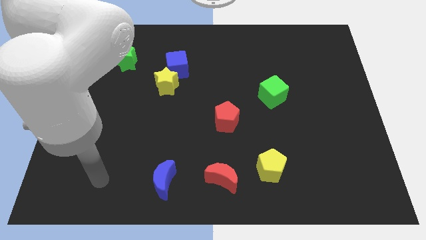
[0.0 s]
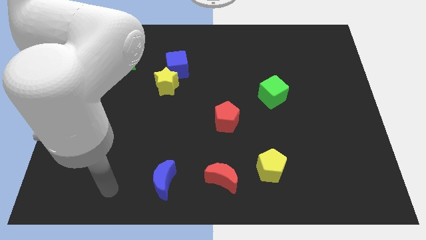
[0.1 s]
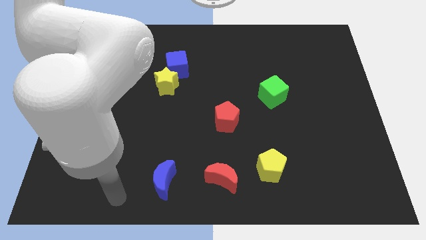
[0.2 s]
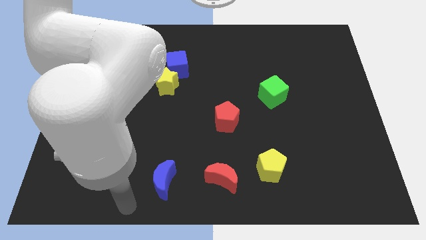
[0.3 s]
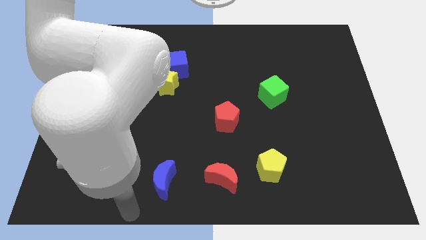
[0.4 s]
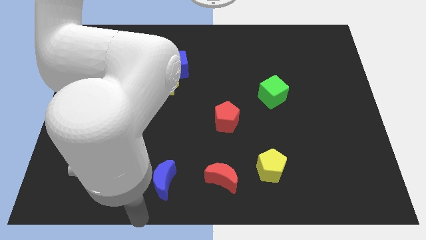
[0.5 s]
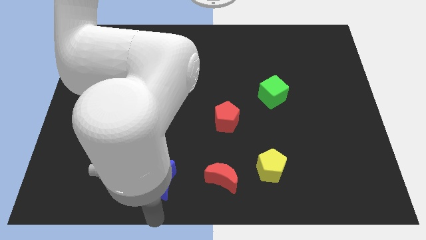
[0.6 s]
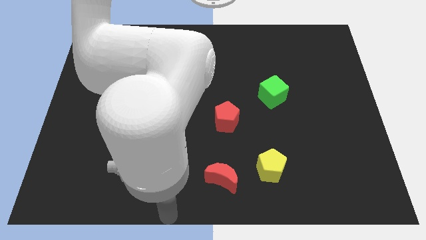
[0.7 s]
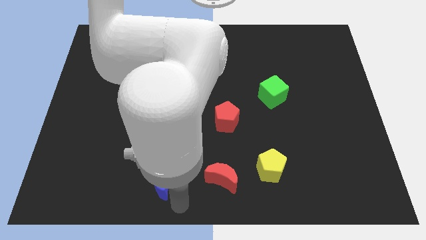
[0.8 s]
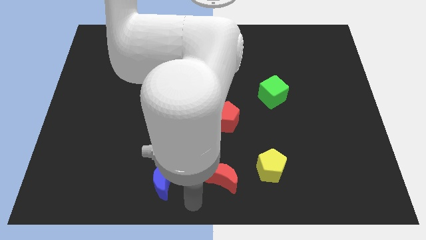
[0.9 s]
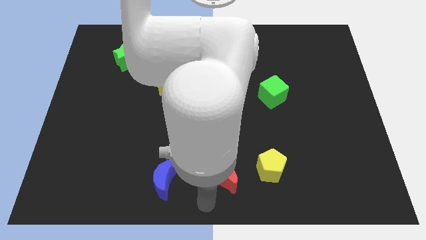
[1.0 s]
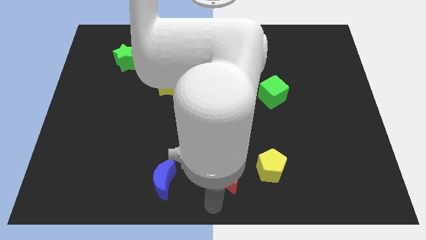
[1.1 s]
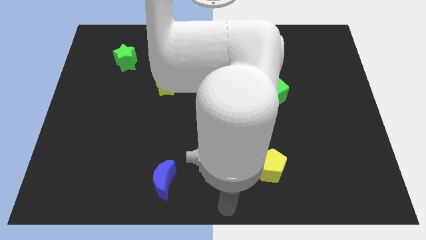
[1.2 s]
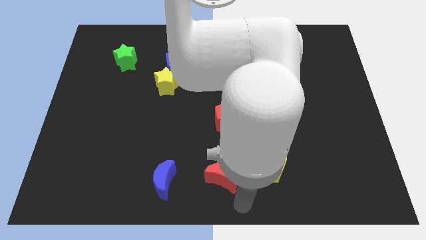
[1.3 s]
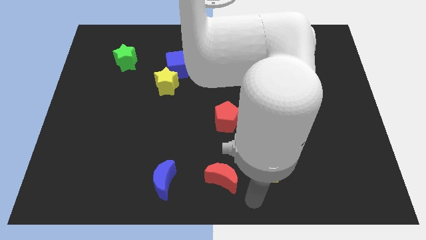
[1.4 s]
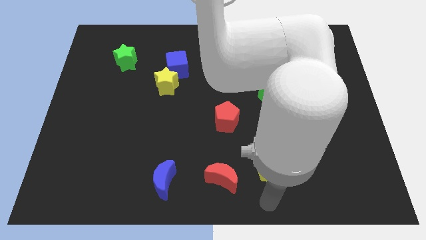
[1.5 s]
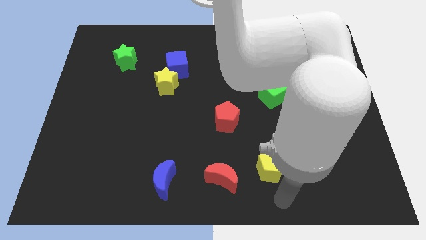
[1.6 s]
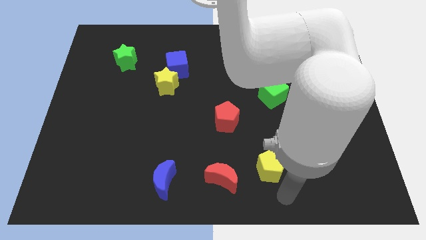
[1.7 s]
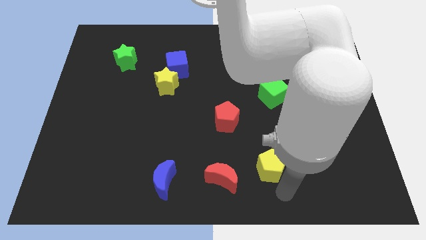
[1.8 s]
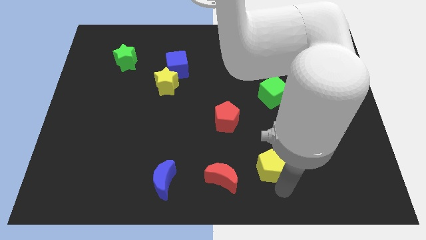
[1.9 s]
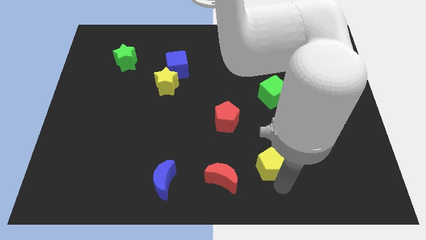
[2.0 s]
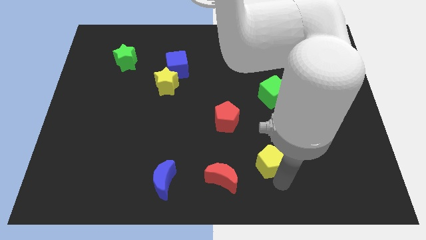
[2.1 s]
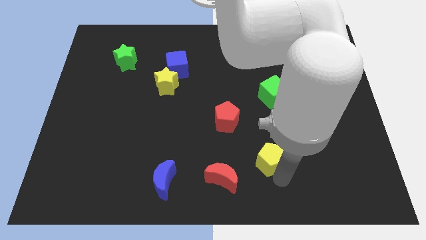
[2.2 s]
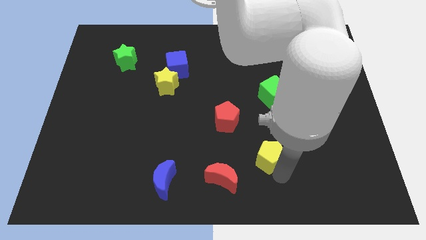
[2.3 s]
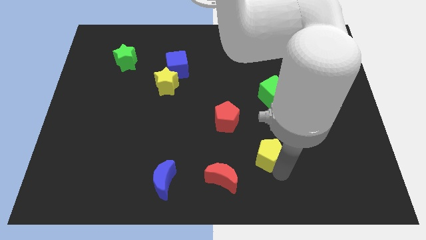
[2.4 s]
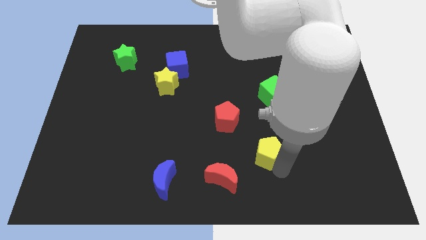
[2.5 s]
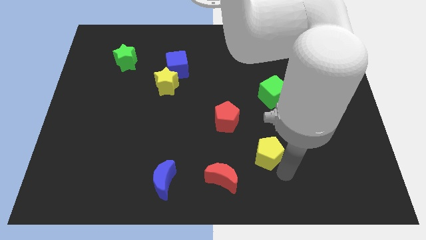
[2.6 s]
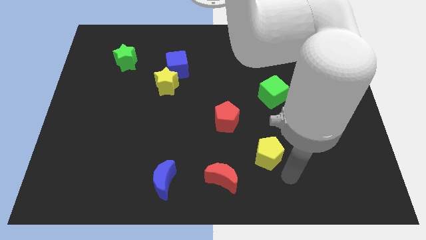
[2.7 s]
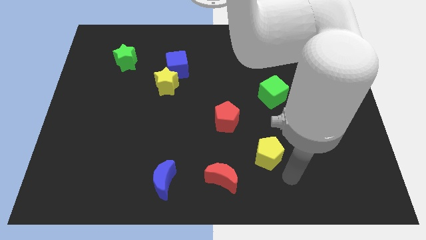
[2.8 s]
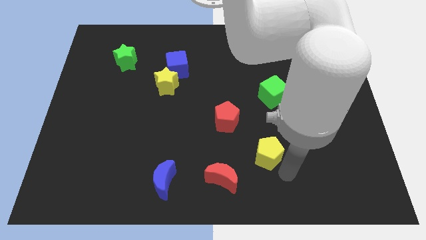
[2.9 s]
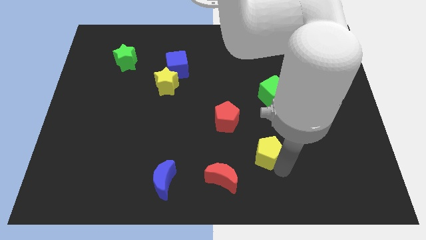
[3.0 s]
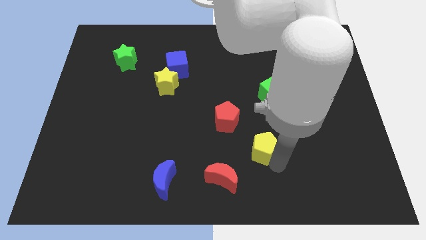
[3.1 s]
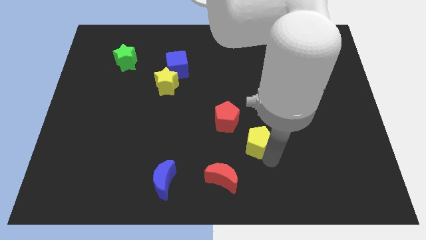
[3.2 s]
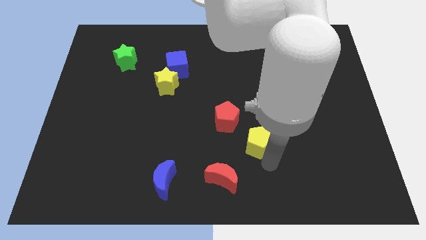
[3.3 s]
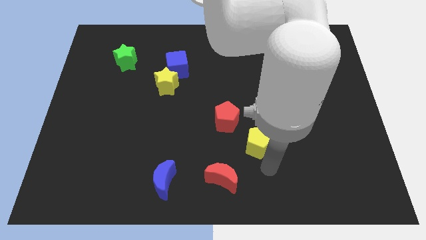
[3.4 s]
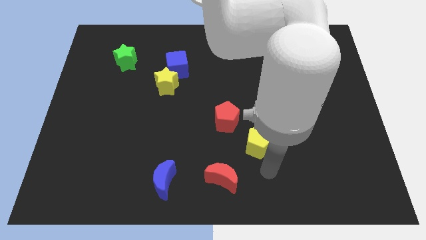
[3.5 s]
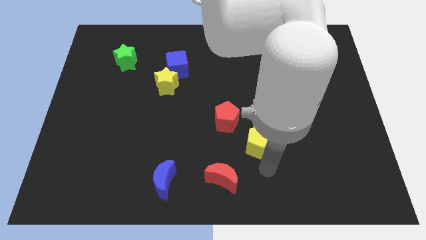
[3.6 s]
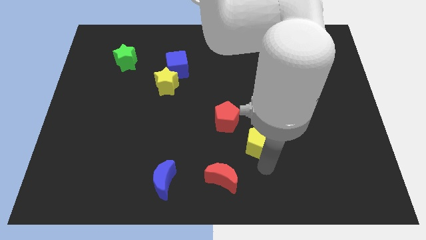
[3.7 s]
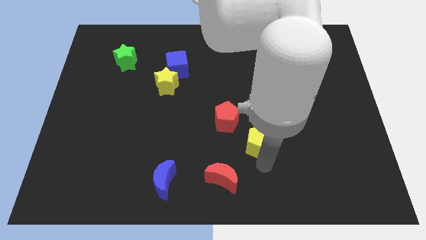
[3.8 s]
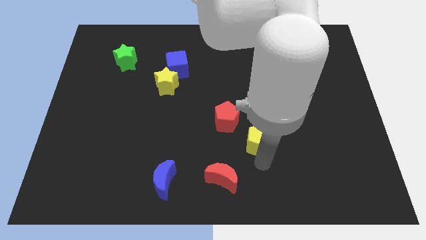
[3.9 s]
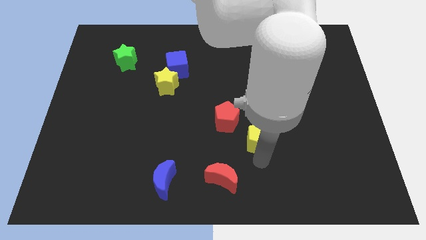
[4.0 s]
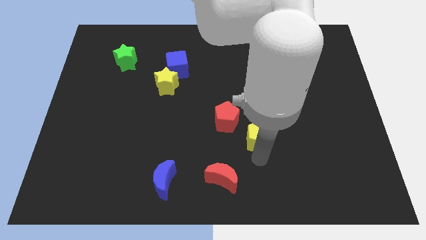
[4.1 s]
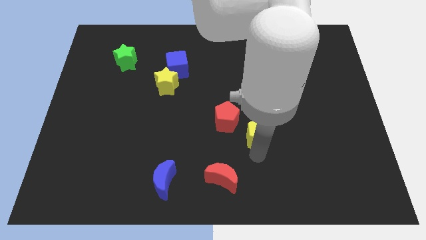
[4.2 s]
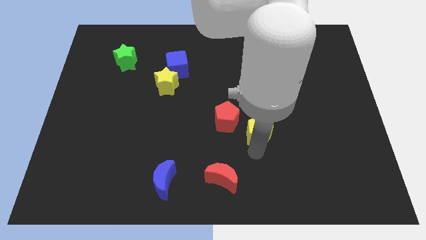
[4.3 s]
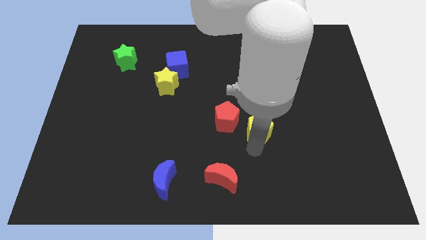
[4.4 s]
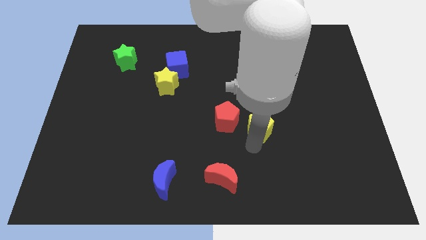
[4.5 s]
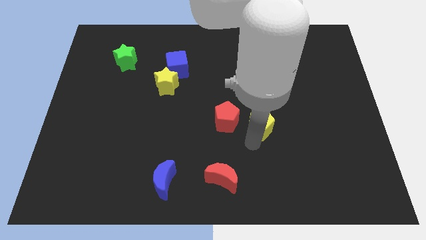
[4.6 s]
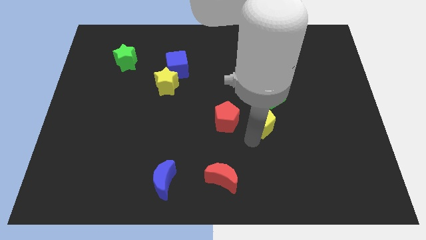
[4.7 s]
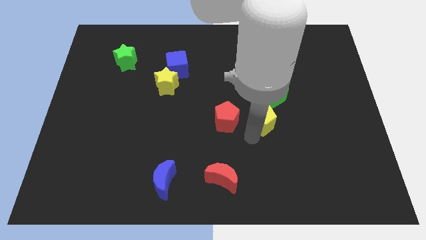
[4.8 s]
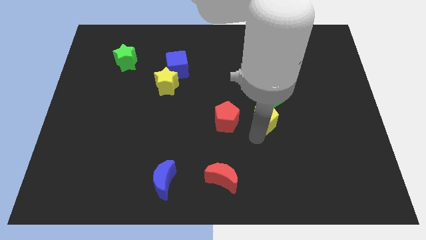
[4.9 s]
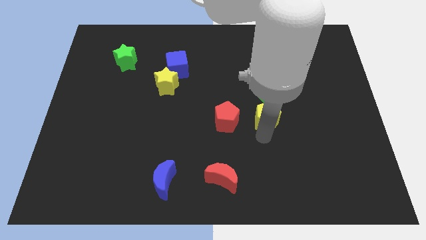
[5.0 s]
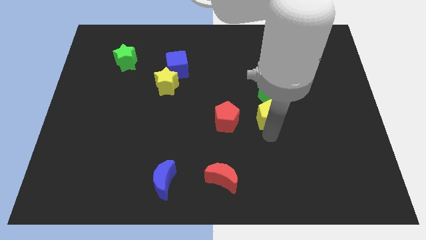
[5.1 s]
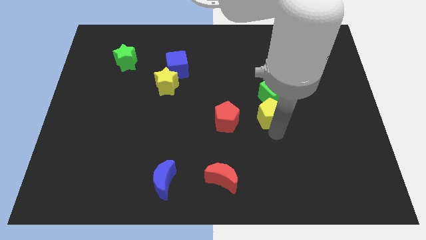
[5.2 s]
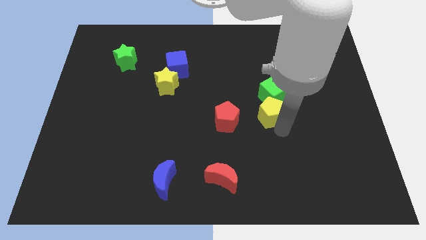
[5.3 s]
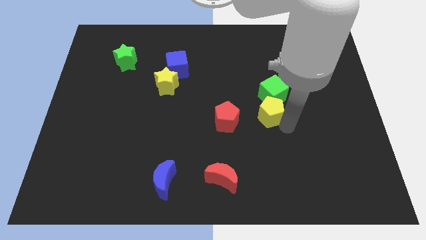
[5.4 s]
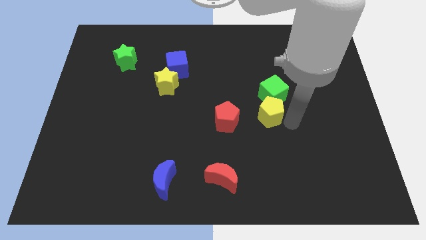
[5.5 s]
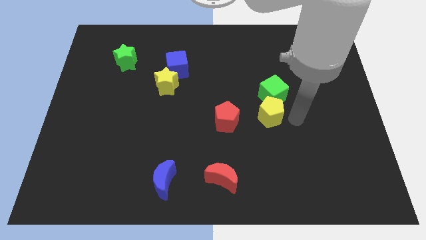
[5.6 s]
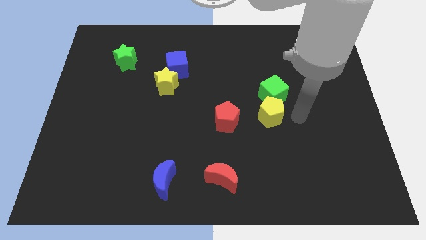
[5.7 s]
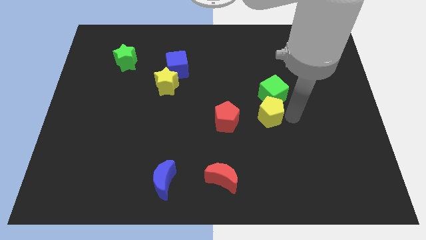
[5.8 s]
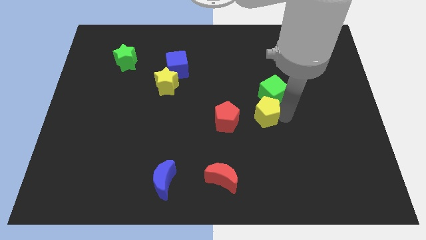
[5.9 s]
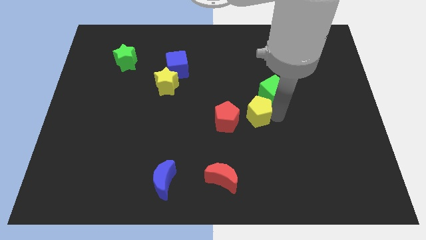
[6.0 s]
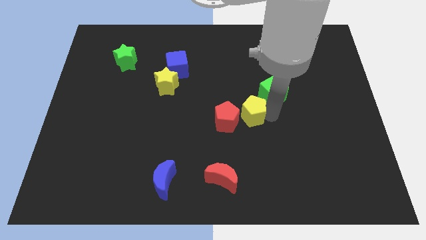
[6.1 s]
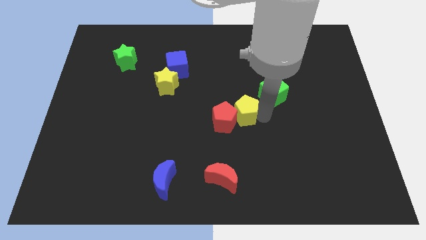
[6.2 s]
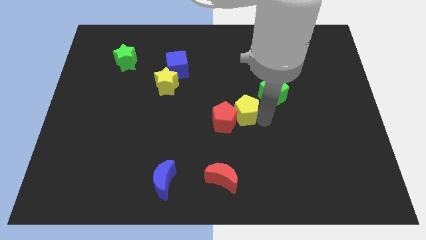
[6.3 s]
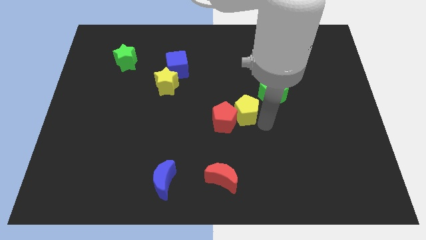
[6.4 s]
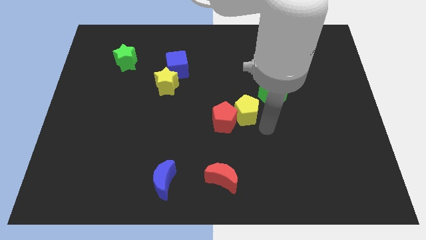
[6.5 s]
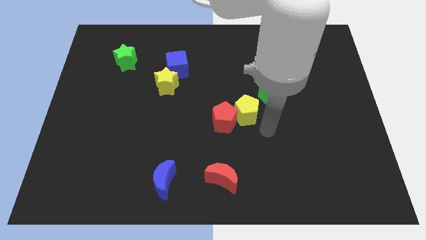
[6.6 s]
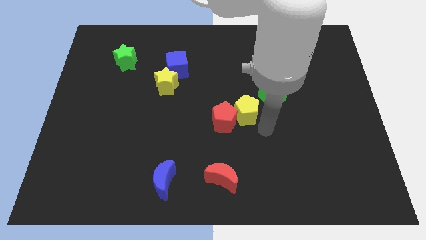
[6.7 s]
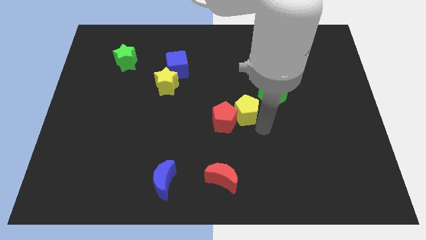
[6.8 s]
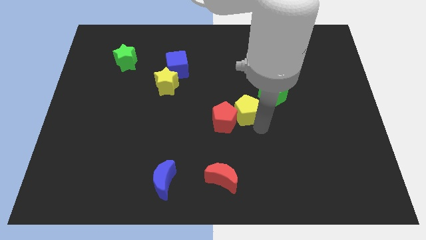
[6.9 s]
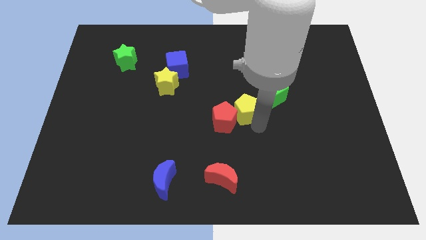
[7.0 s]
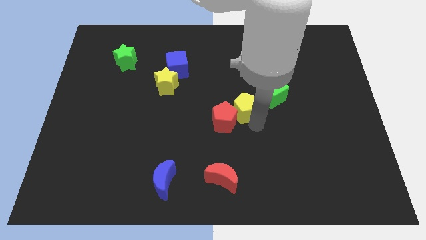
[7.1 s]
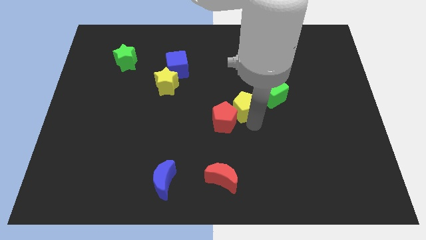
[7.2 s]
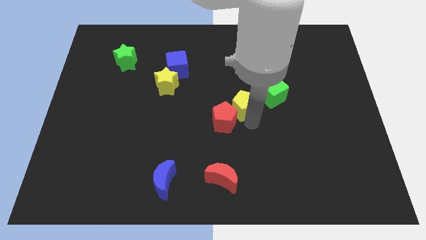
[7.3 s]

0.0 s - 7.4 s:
move the yellow pentagon to the top of the red pentagon
